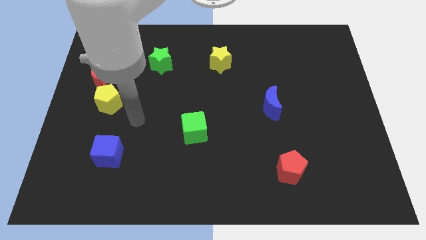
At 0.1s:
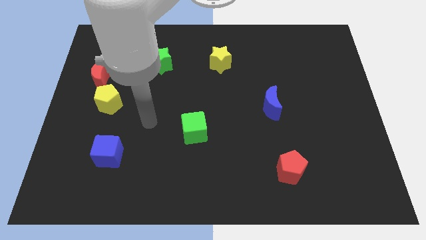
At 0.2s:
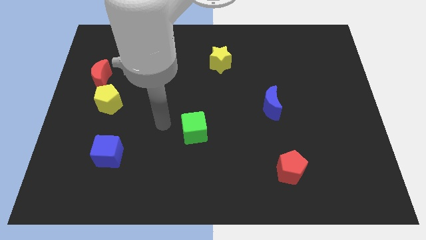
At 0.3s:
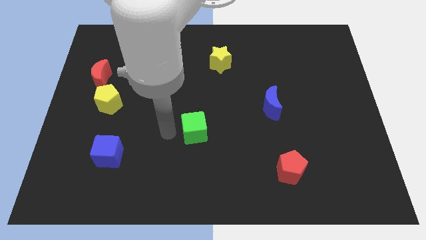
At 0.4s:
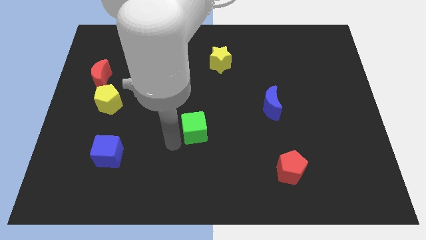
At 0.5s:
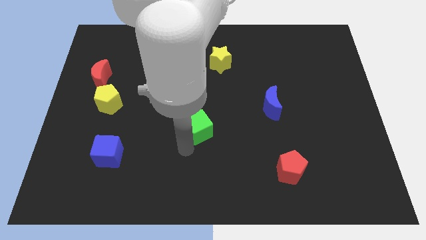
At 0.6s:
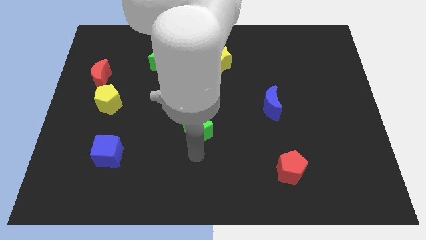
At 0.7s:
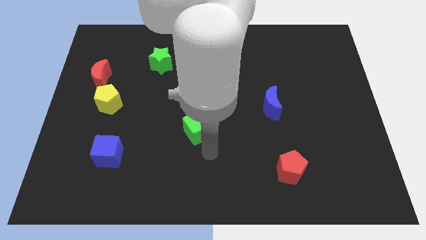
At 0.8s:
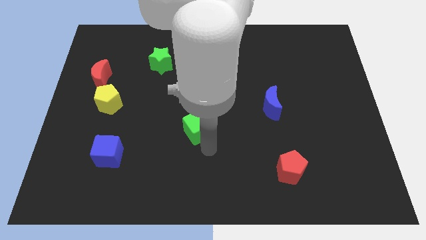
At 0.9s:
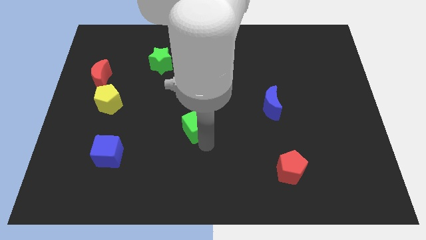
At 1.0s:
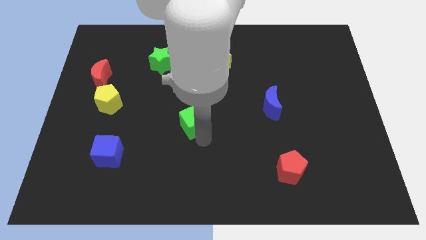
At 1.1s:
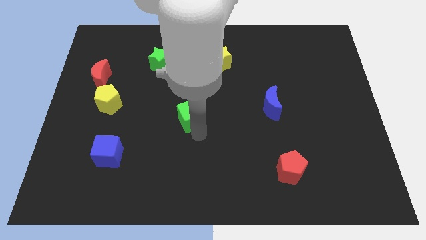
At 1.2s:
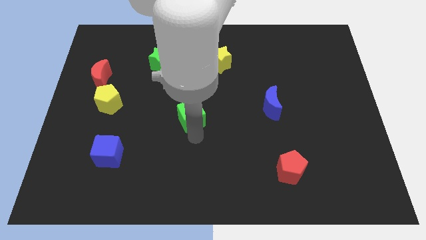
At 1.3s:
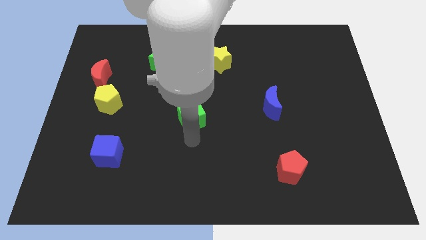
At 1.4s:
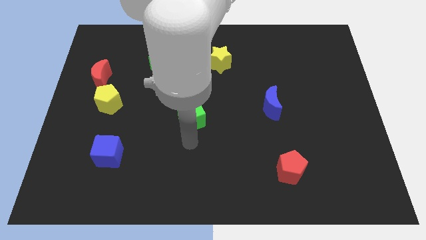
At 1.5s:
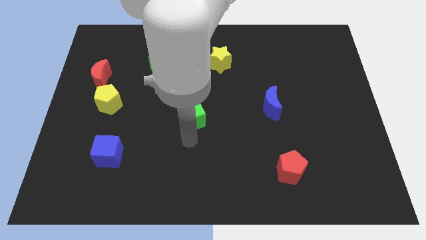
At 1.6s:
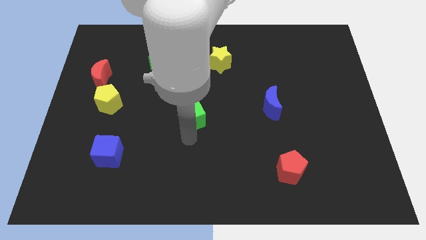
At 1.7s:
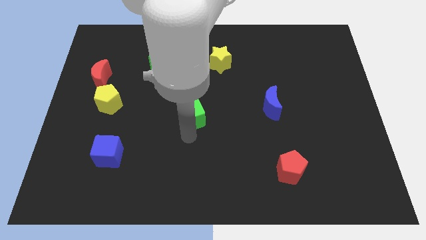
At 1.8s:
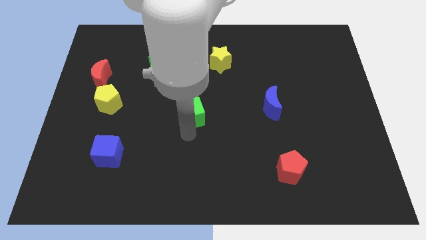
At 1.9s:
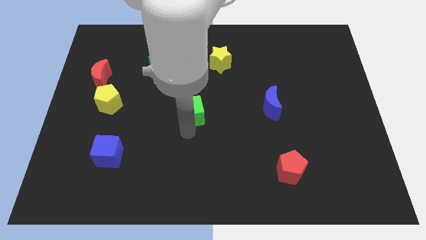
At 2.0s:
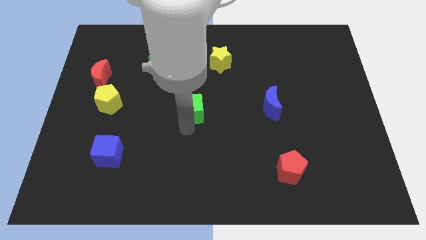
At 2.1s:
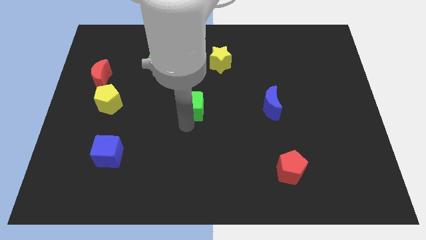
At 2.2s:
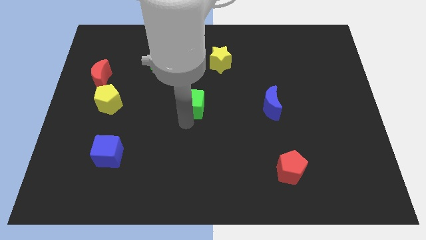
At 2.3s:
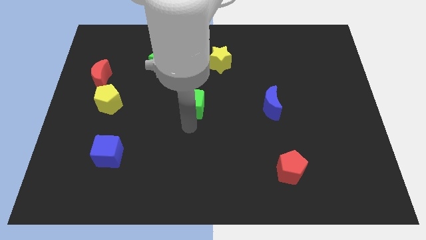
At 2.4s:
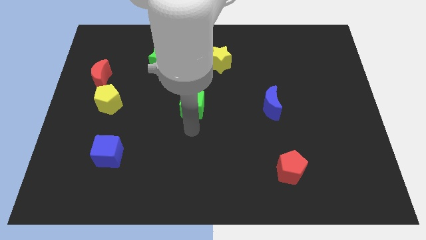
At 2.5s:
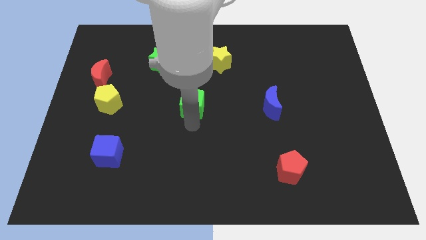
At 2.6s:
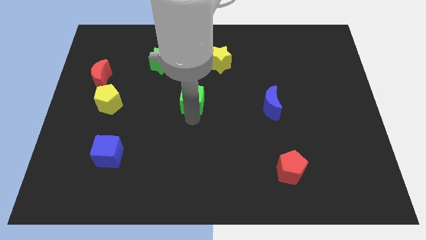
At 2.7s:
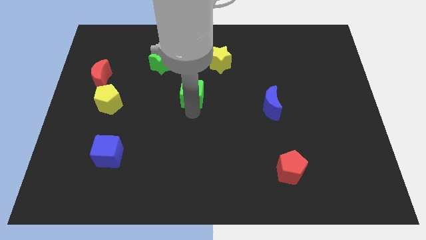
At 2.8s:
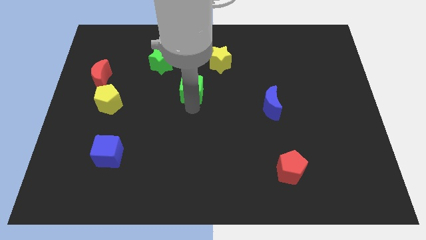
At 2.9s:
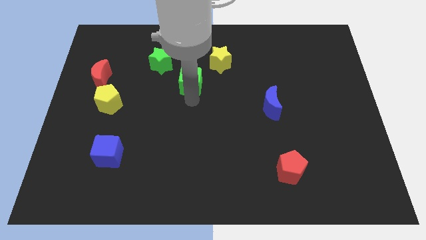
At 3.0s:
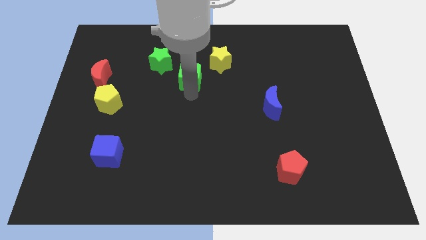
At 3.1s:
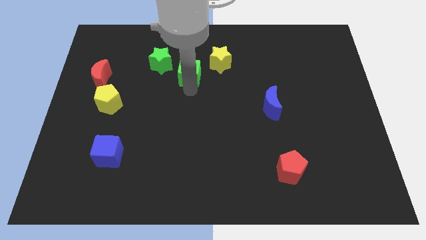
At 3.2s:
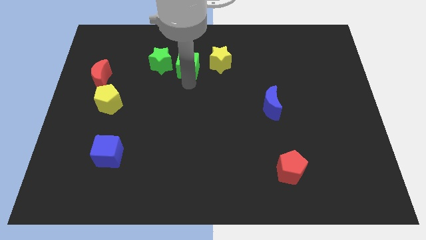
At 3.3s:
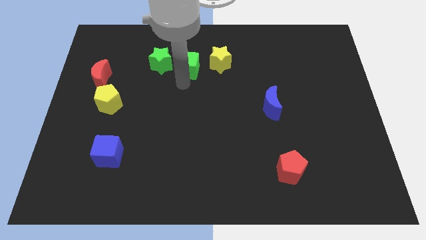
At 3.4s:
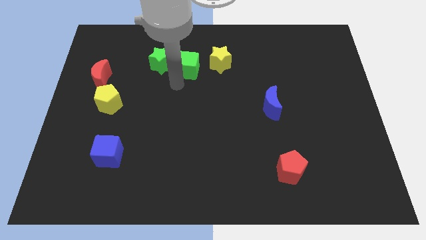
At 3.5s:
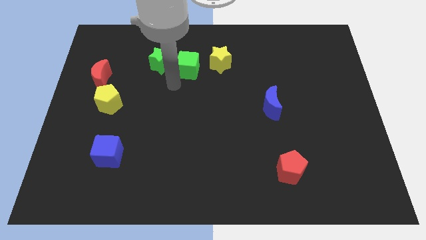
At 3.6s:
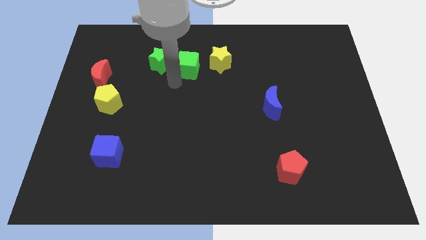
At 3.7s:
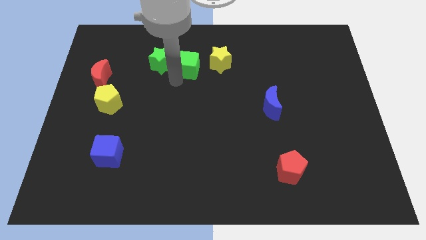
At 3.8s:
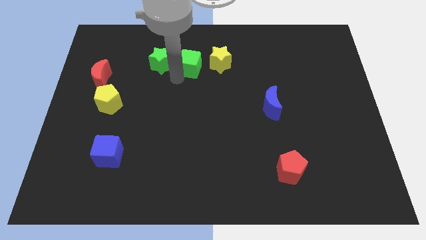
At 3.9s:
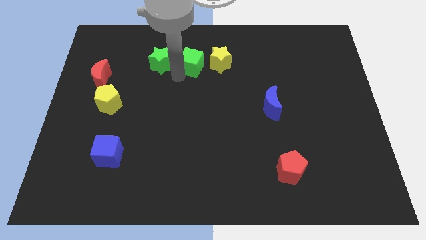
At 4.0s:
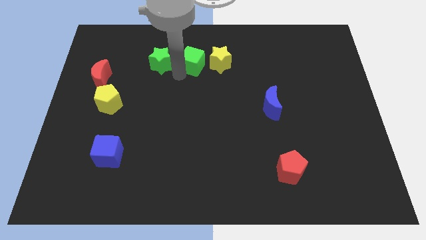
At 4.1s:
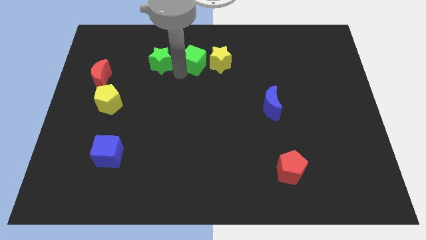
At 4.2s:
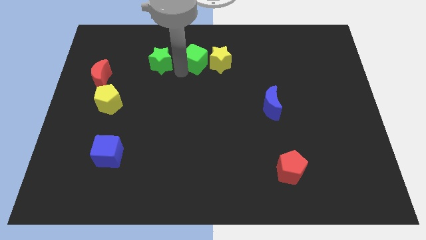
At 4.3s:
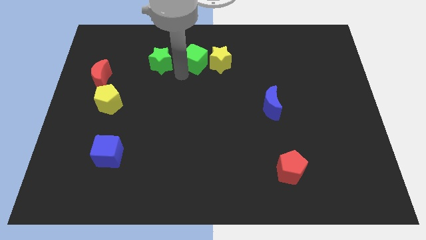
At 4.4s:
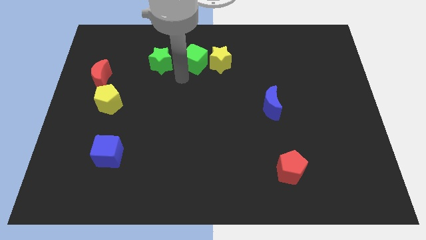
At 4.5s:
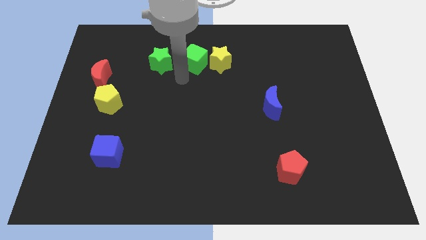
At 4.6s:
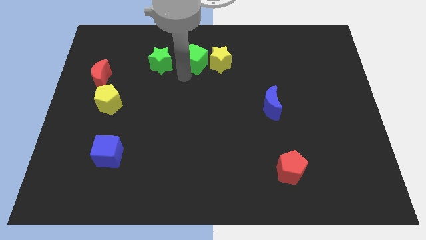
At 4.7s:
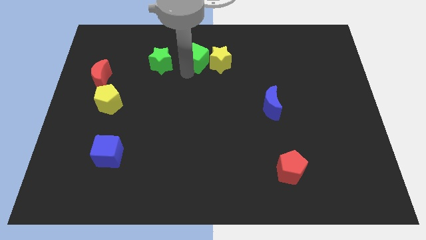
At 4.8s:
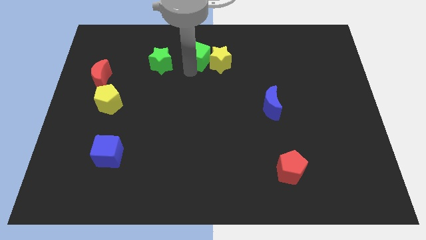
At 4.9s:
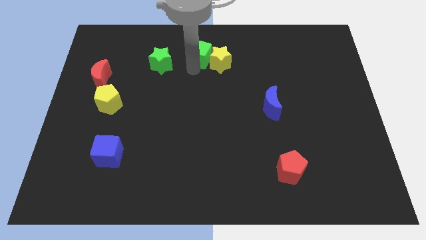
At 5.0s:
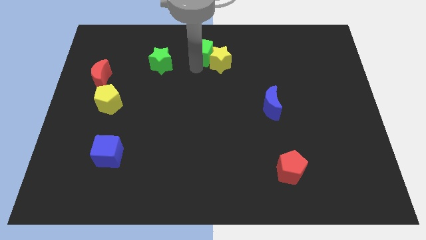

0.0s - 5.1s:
put the green cube to the top side

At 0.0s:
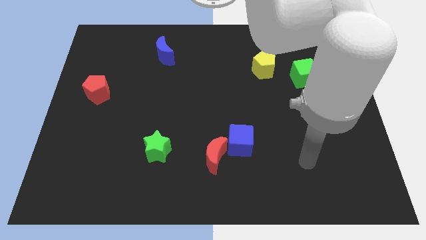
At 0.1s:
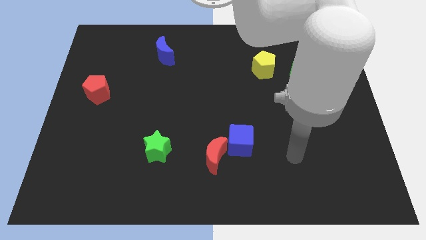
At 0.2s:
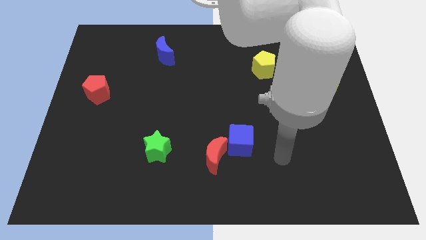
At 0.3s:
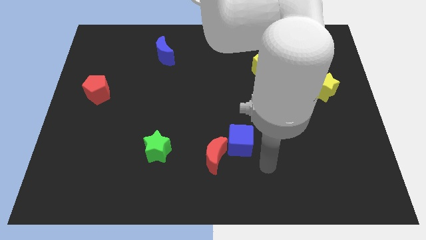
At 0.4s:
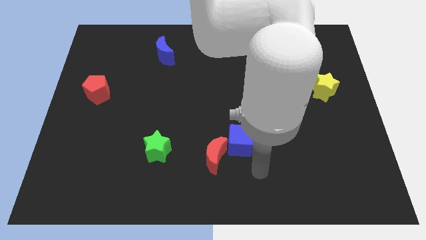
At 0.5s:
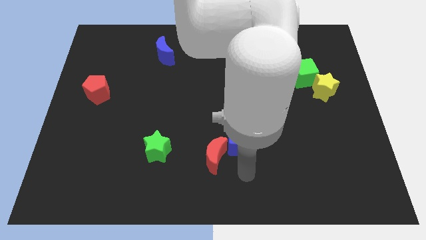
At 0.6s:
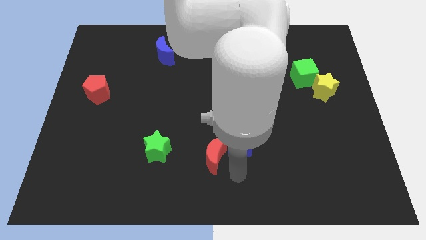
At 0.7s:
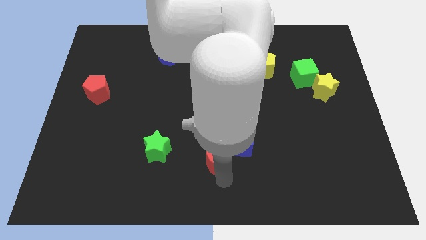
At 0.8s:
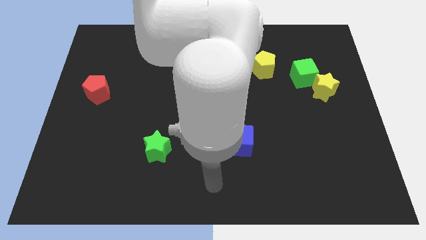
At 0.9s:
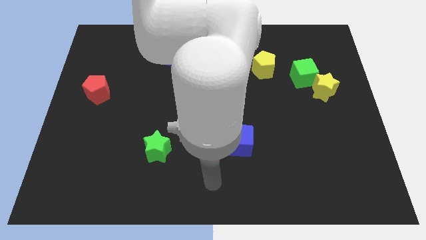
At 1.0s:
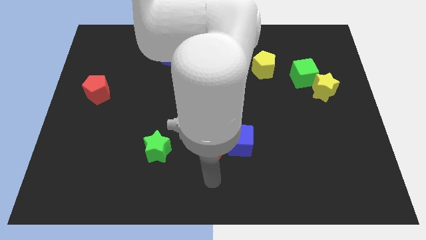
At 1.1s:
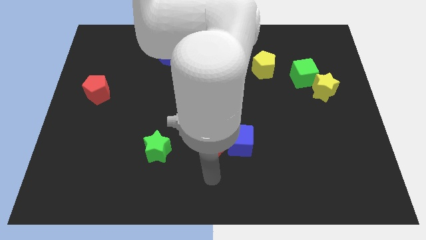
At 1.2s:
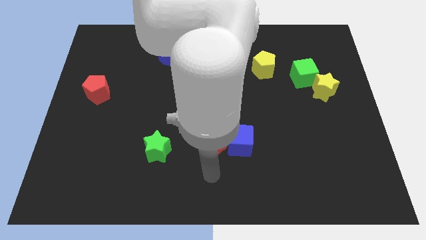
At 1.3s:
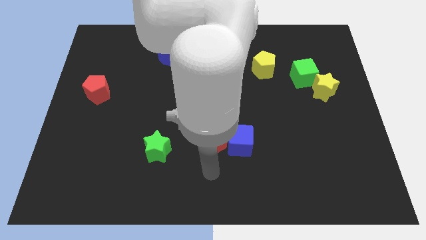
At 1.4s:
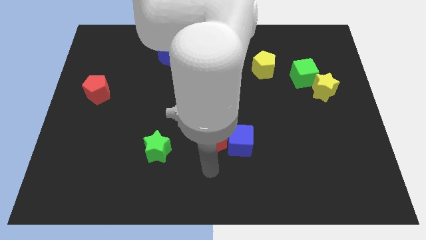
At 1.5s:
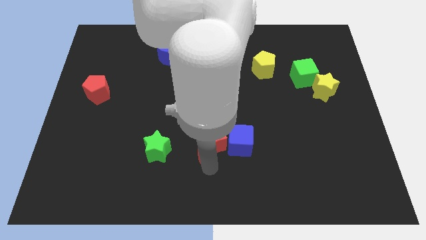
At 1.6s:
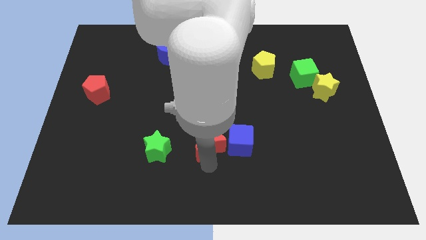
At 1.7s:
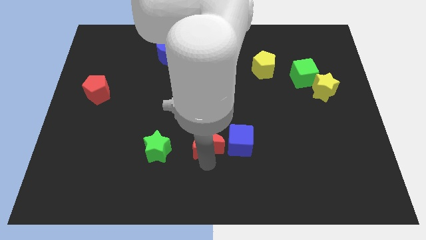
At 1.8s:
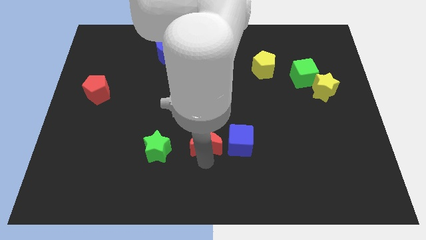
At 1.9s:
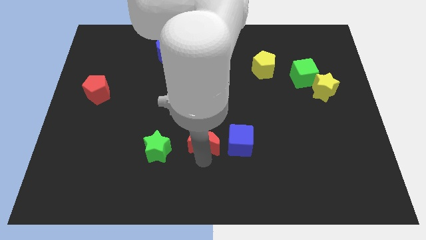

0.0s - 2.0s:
slide the red moon to the center
